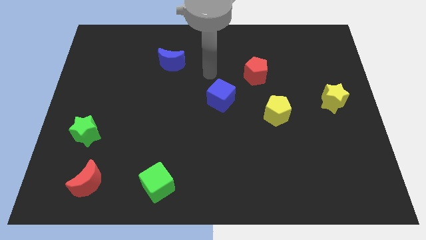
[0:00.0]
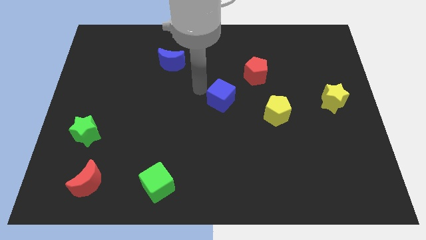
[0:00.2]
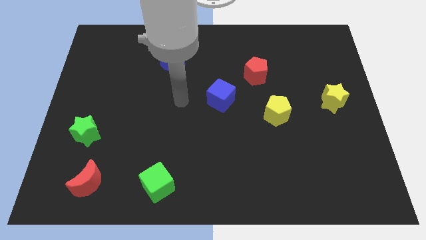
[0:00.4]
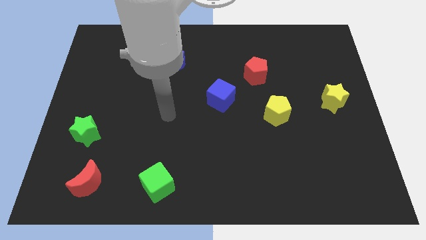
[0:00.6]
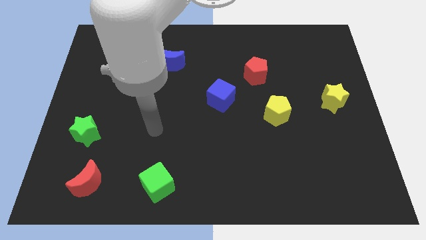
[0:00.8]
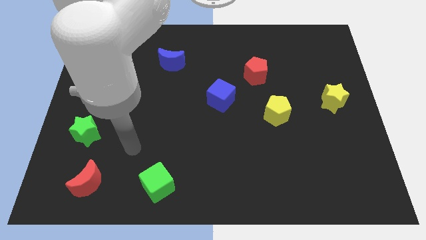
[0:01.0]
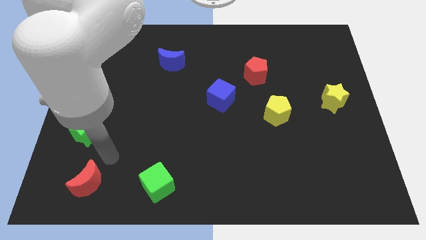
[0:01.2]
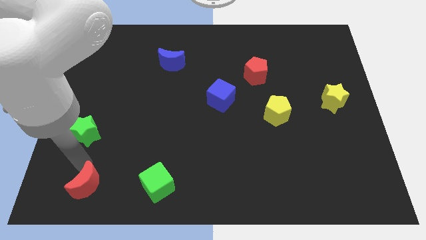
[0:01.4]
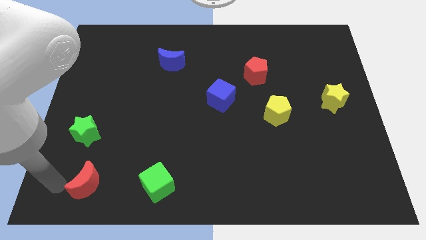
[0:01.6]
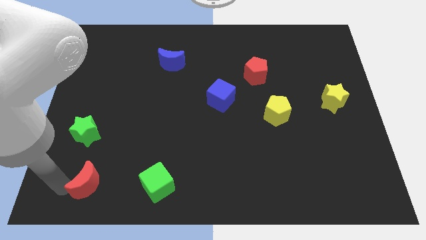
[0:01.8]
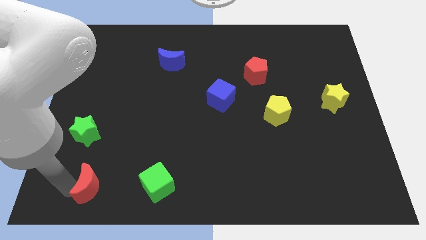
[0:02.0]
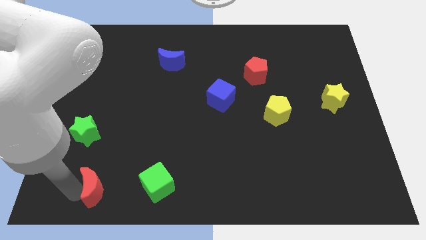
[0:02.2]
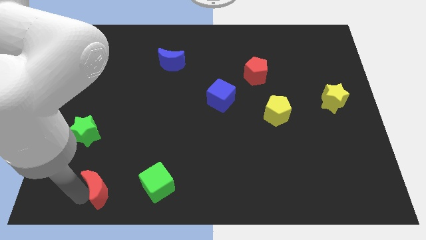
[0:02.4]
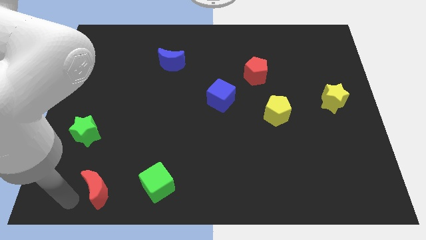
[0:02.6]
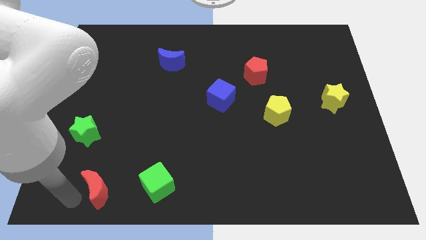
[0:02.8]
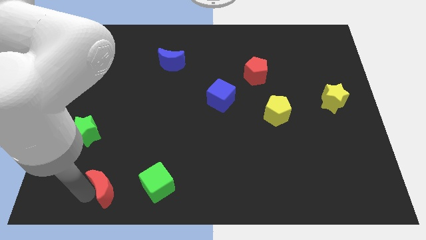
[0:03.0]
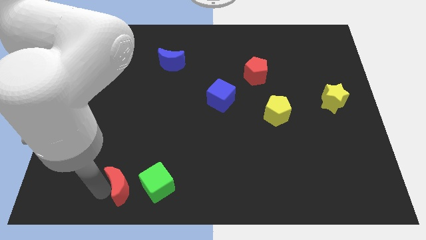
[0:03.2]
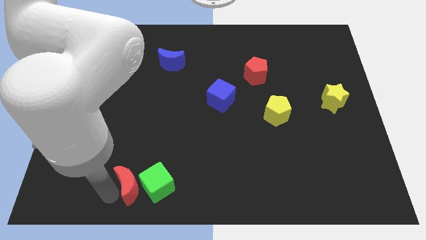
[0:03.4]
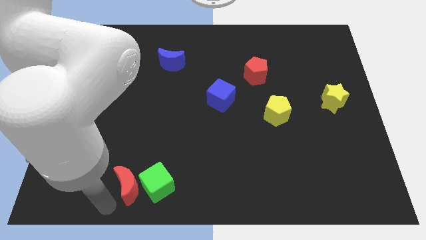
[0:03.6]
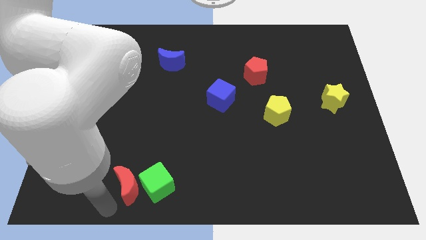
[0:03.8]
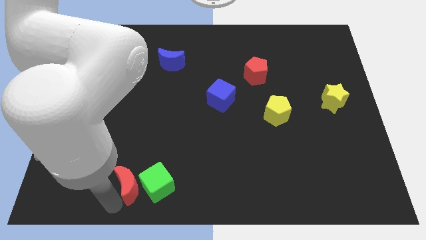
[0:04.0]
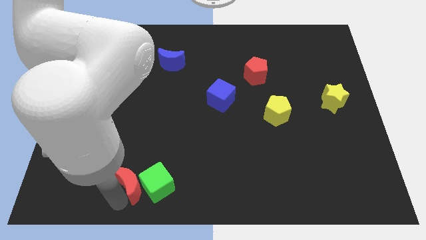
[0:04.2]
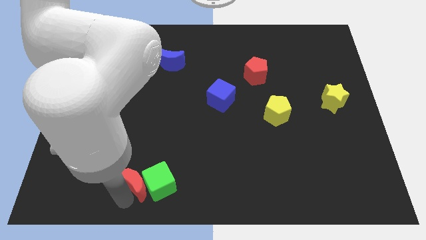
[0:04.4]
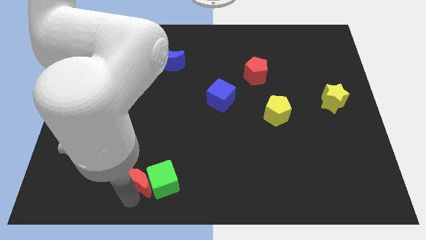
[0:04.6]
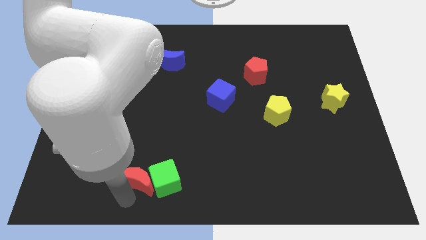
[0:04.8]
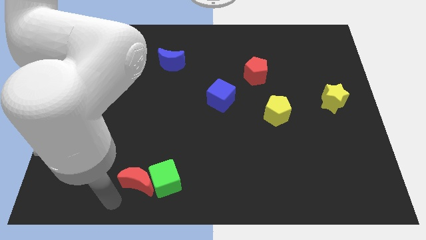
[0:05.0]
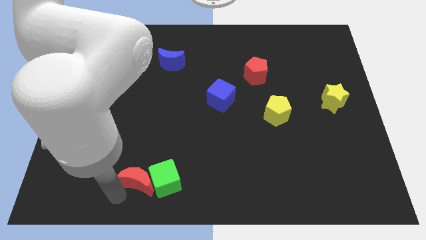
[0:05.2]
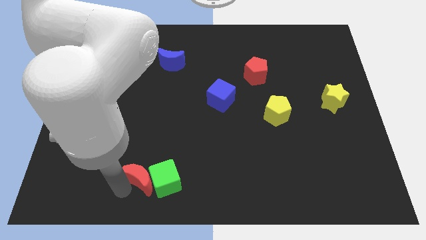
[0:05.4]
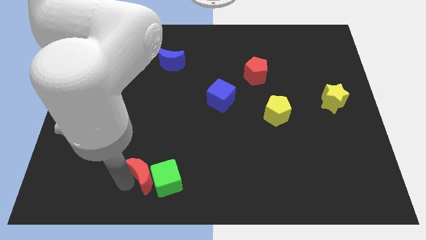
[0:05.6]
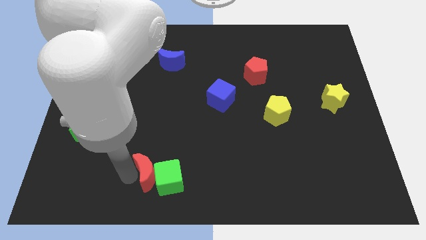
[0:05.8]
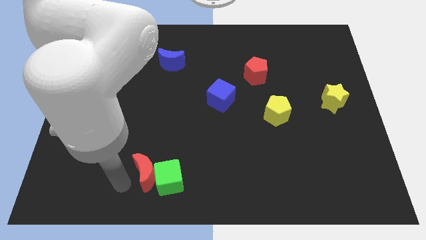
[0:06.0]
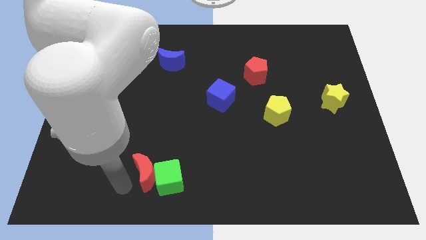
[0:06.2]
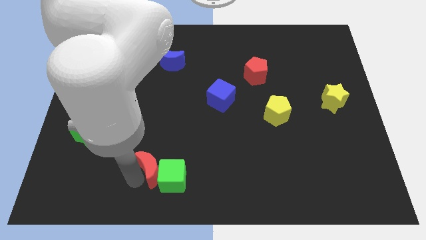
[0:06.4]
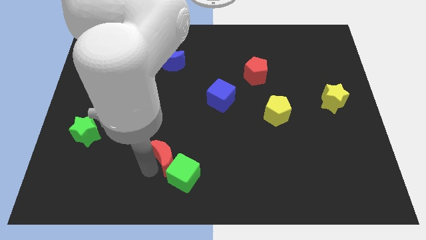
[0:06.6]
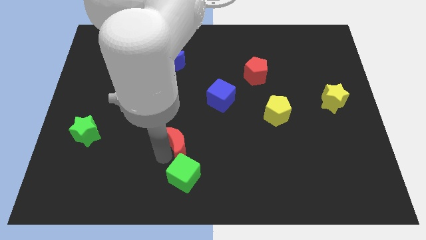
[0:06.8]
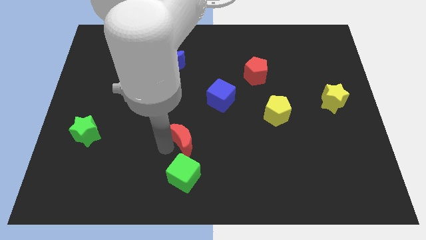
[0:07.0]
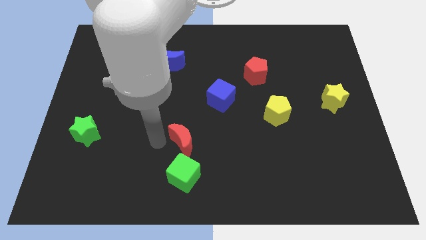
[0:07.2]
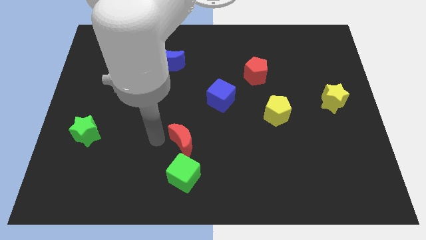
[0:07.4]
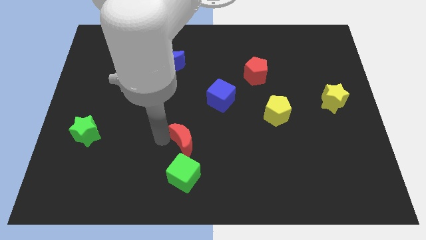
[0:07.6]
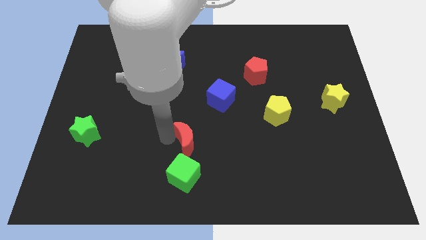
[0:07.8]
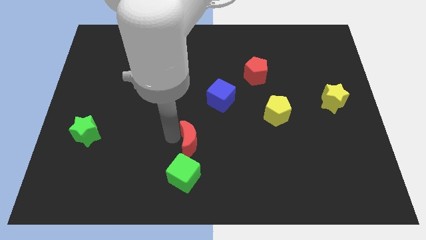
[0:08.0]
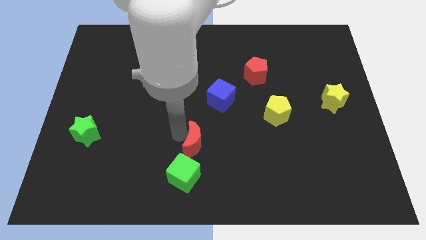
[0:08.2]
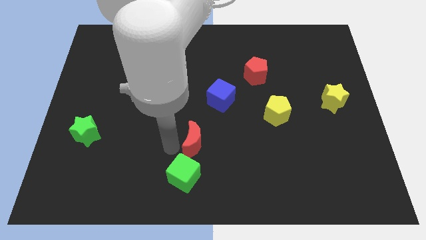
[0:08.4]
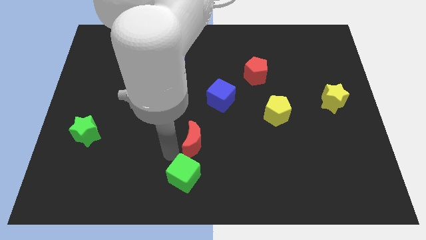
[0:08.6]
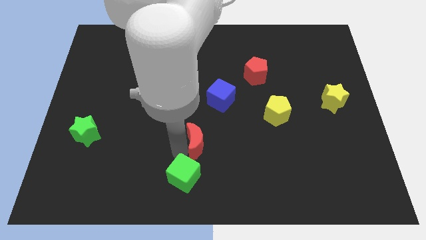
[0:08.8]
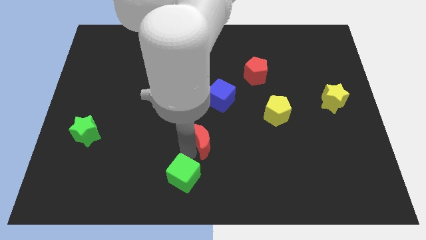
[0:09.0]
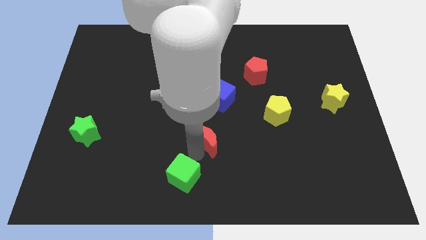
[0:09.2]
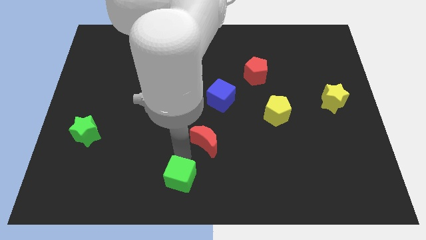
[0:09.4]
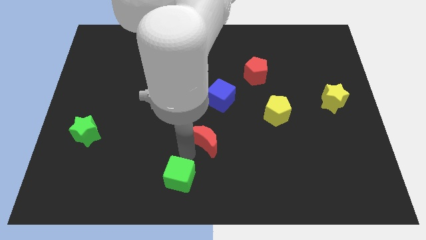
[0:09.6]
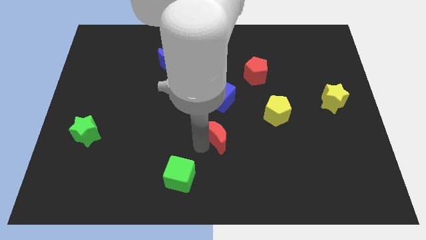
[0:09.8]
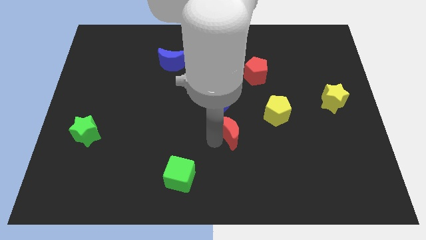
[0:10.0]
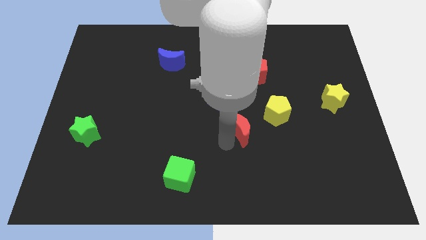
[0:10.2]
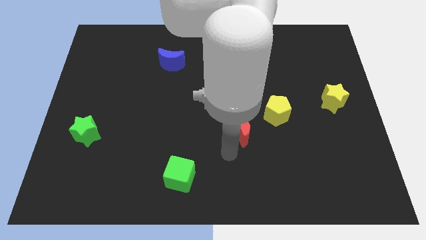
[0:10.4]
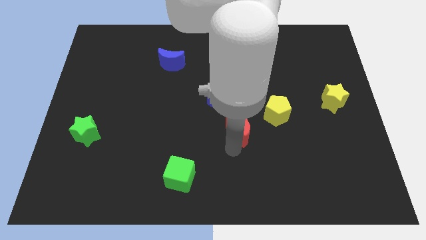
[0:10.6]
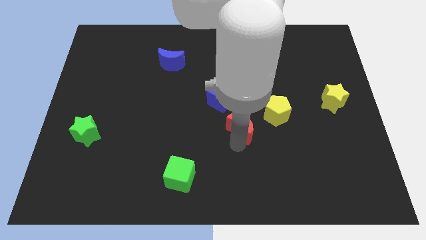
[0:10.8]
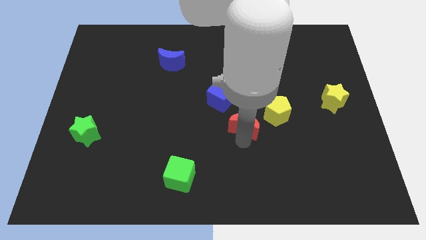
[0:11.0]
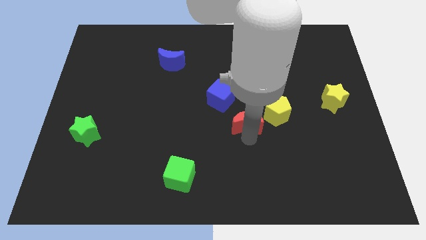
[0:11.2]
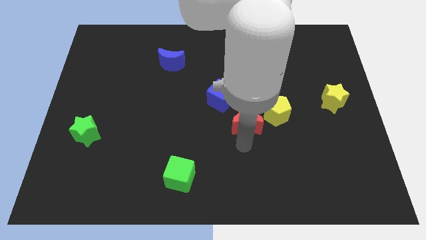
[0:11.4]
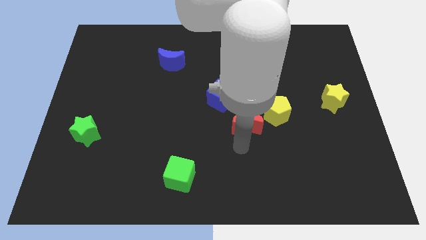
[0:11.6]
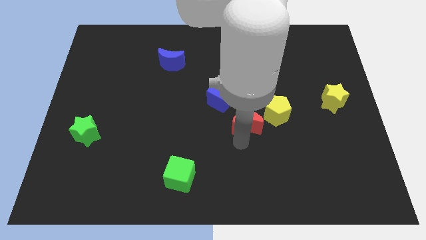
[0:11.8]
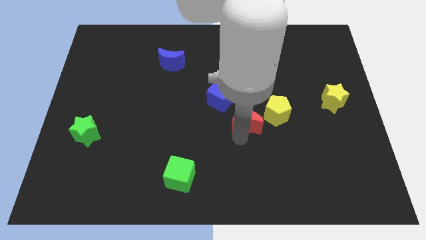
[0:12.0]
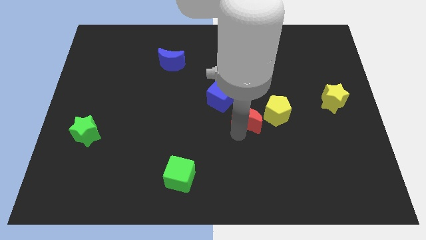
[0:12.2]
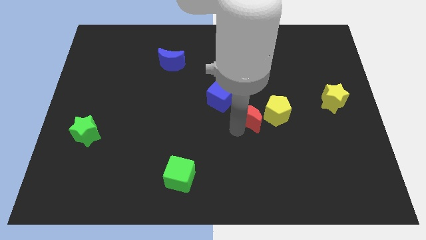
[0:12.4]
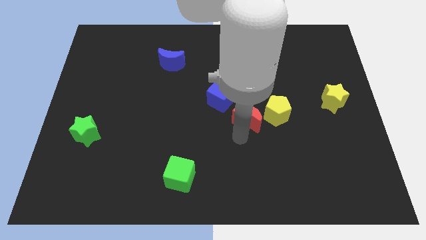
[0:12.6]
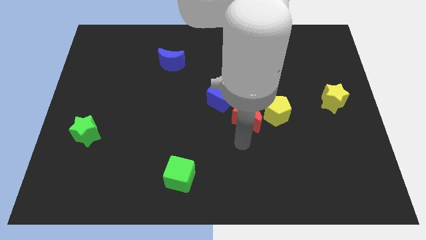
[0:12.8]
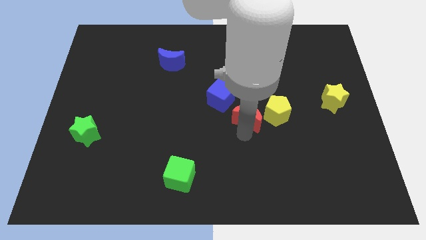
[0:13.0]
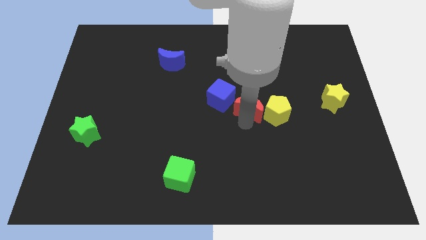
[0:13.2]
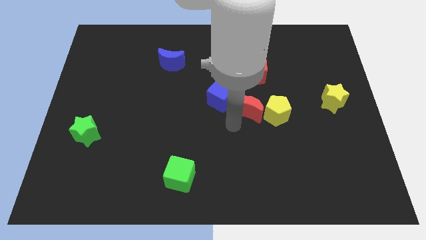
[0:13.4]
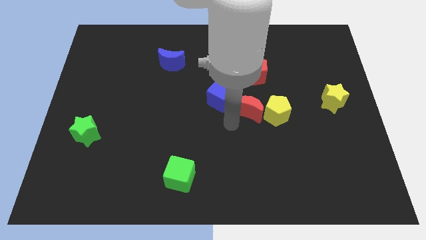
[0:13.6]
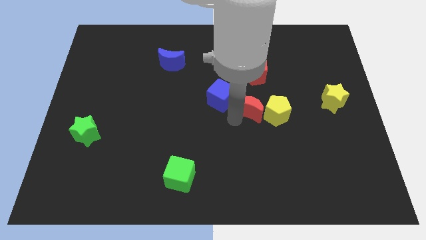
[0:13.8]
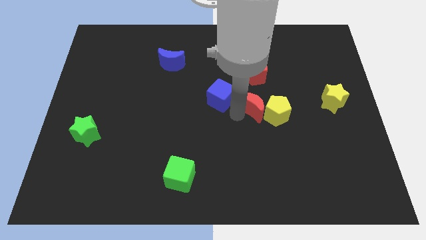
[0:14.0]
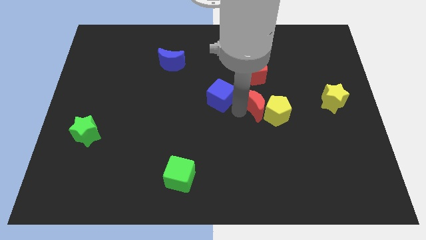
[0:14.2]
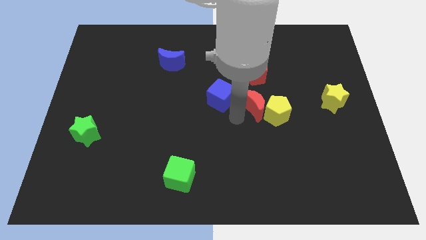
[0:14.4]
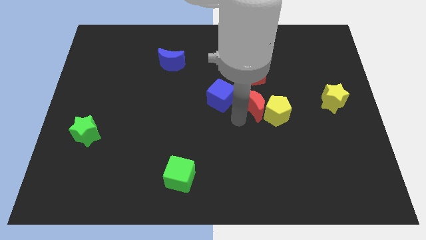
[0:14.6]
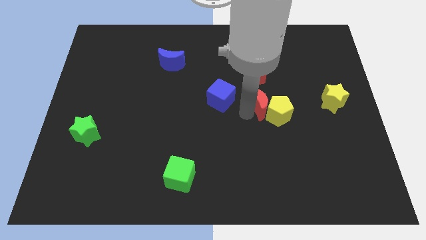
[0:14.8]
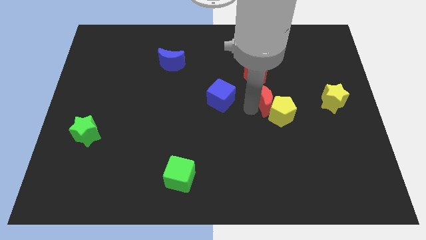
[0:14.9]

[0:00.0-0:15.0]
push the red moon left of the yellow star
